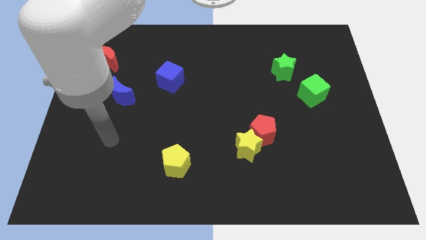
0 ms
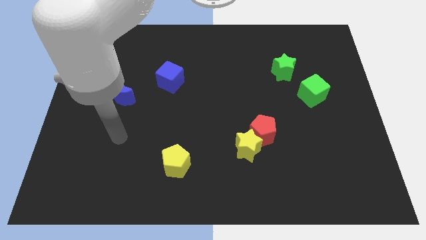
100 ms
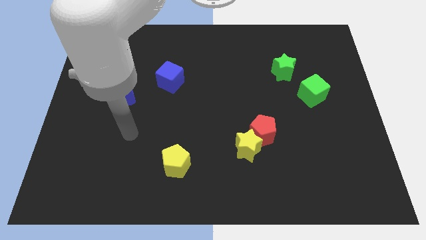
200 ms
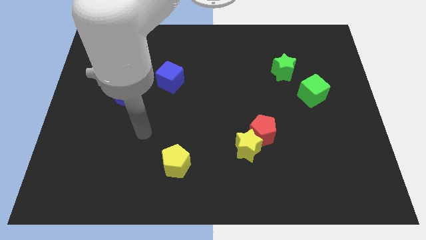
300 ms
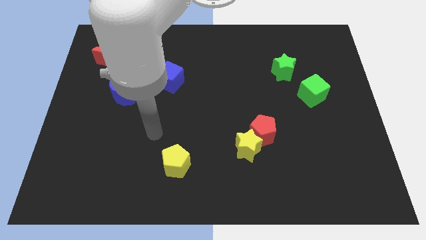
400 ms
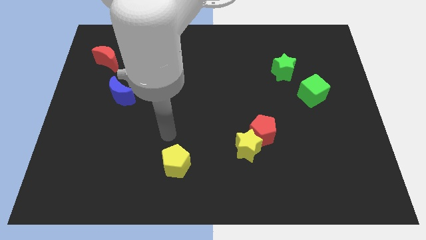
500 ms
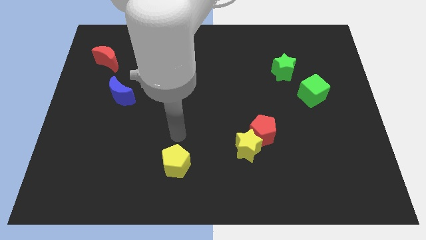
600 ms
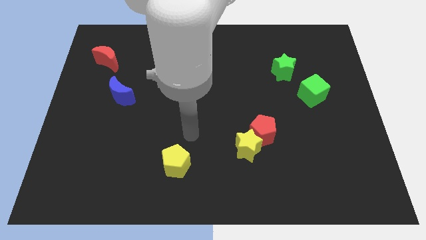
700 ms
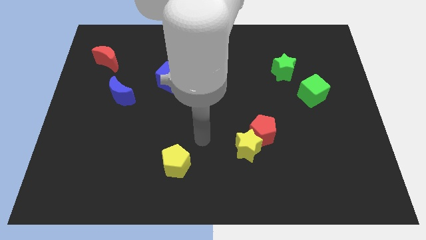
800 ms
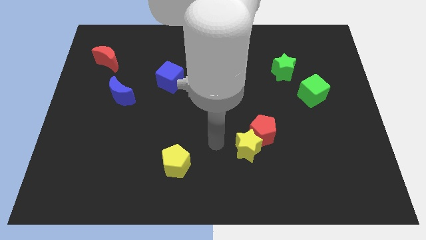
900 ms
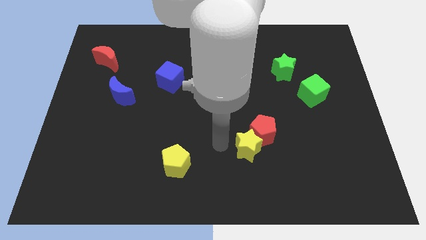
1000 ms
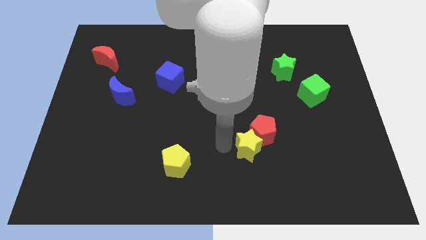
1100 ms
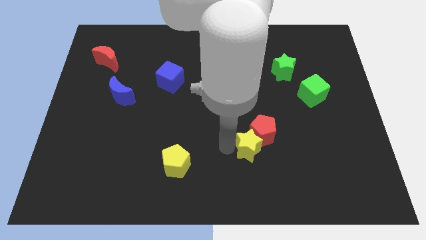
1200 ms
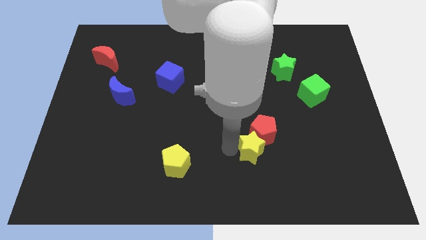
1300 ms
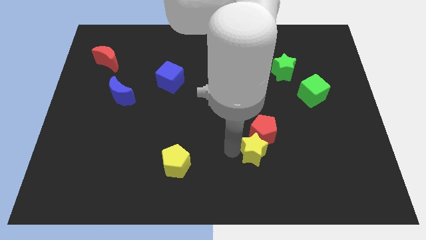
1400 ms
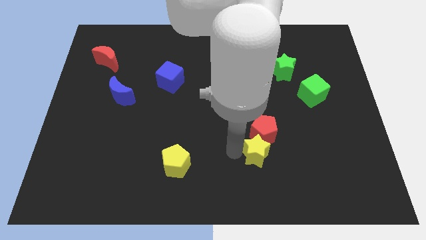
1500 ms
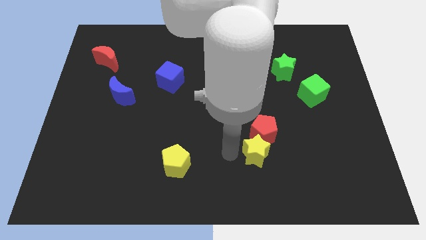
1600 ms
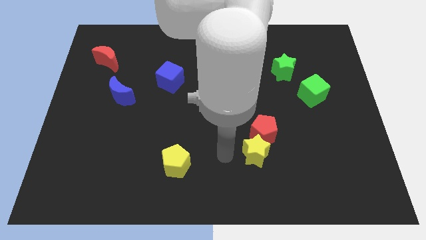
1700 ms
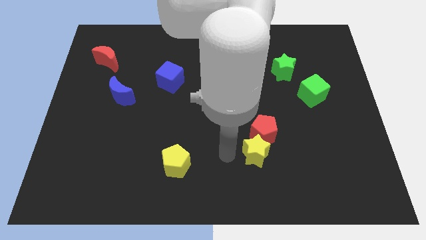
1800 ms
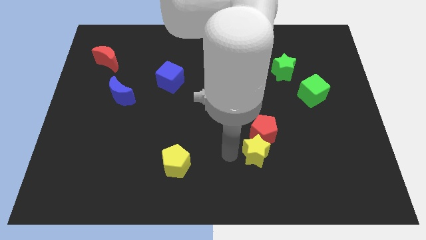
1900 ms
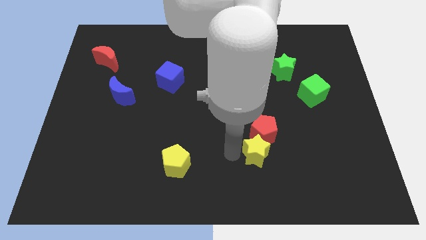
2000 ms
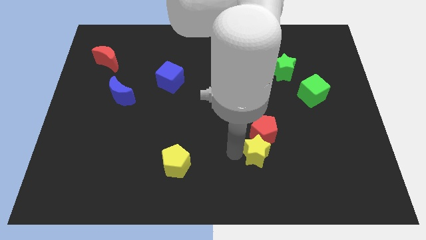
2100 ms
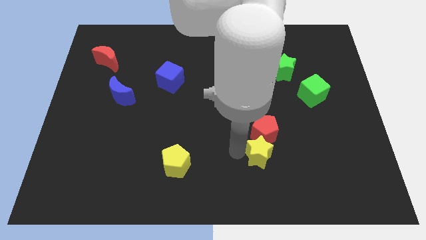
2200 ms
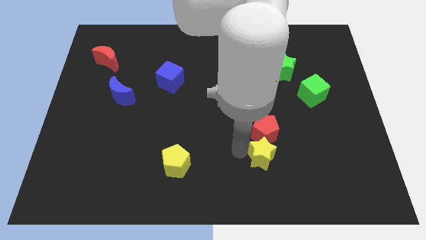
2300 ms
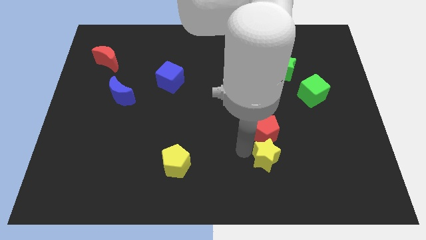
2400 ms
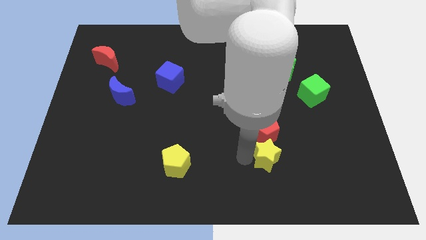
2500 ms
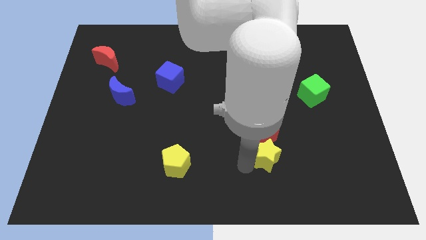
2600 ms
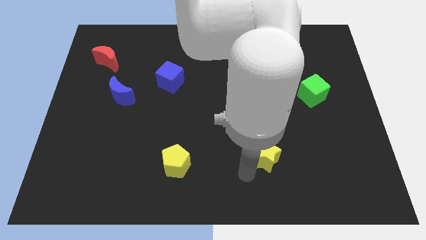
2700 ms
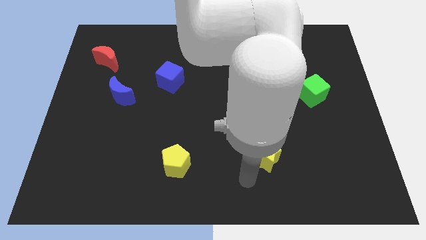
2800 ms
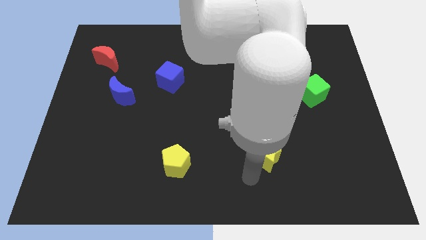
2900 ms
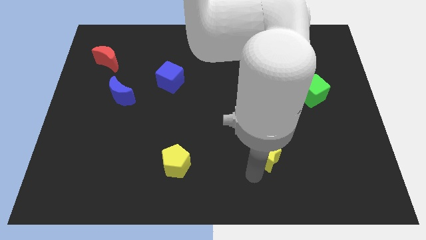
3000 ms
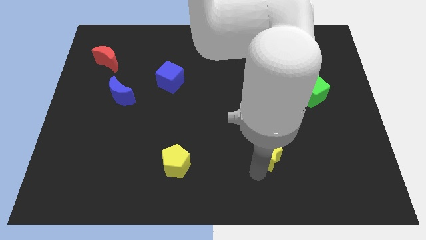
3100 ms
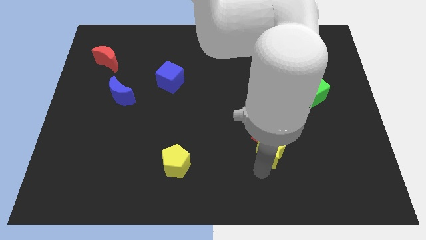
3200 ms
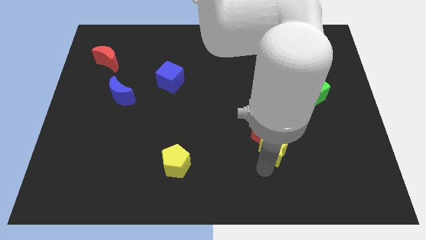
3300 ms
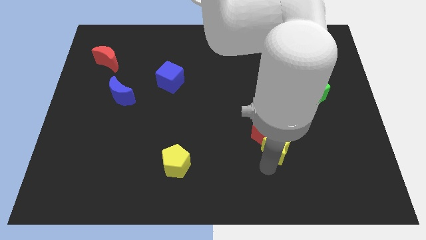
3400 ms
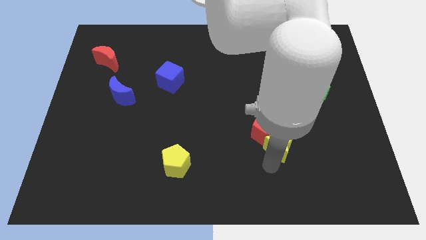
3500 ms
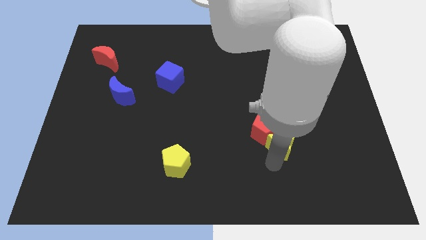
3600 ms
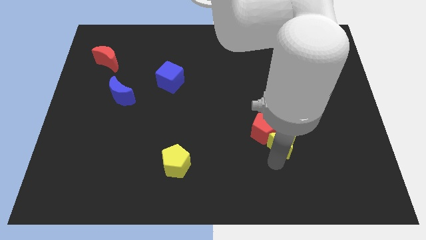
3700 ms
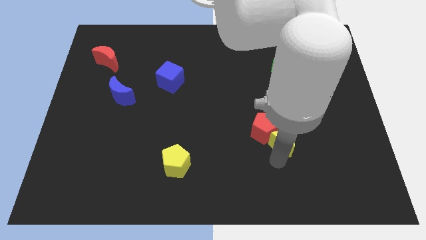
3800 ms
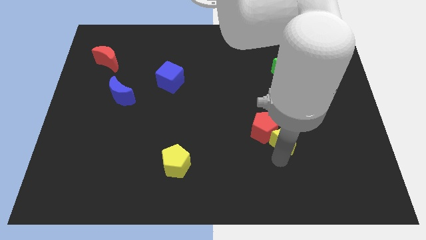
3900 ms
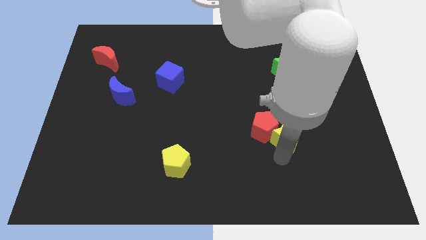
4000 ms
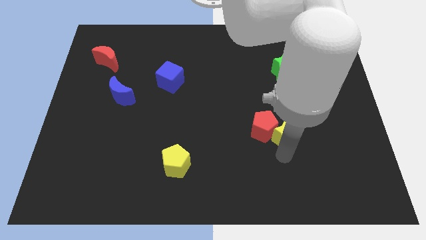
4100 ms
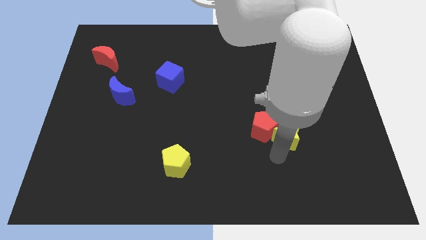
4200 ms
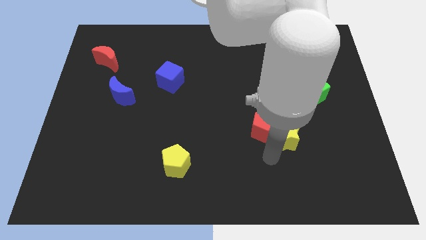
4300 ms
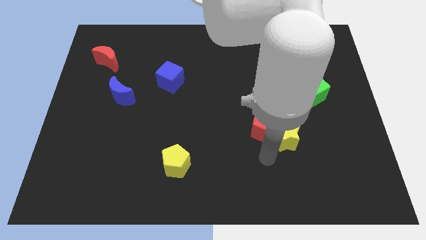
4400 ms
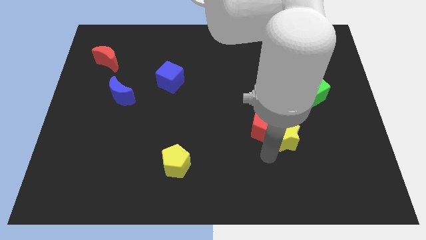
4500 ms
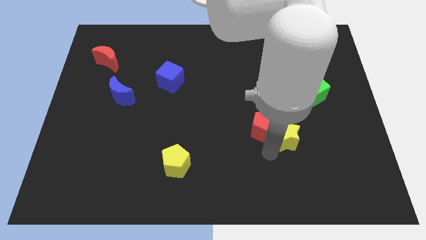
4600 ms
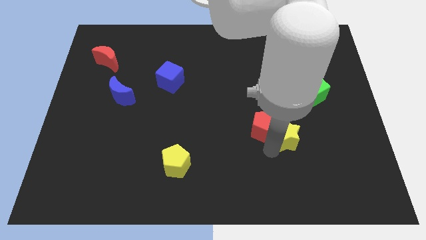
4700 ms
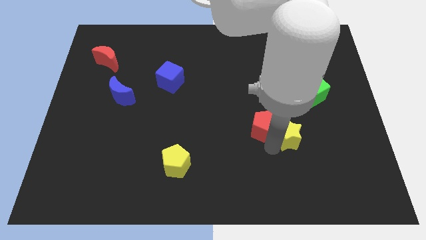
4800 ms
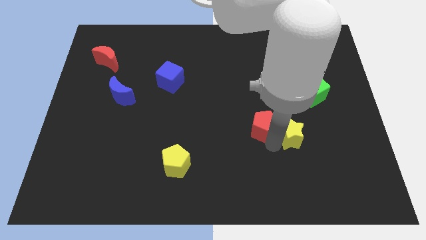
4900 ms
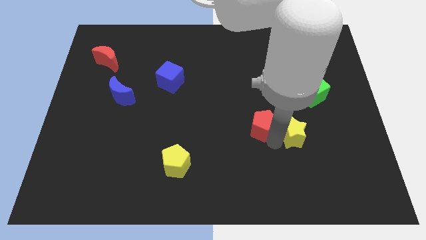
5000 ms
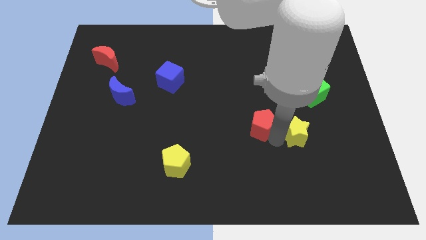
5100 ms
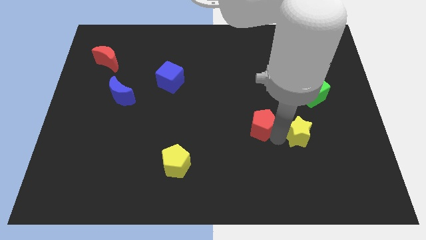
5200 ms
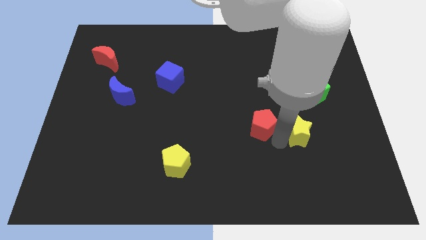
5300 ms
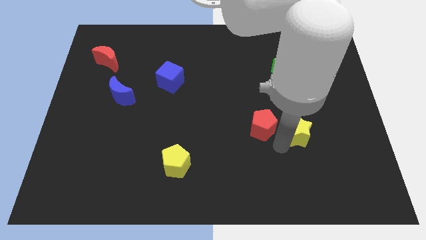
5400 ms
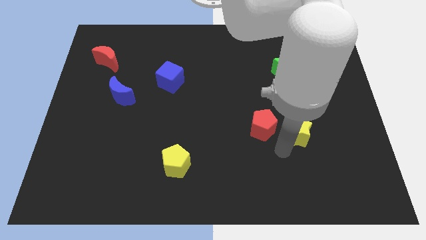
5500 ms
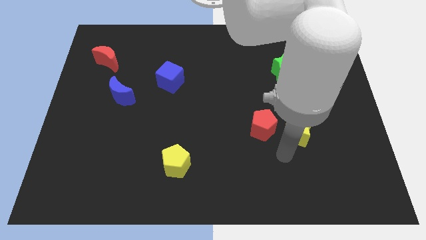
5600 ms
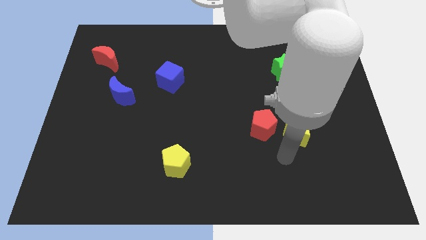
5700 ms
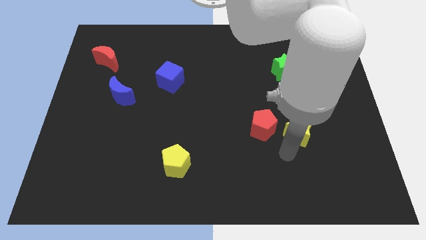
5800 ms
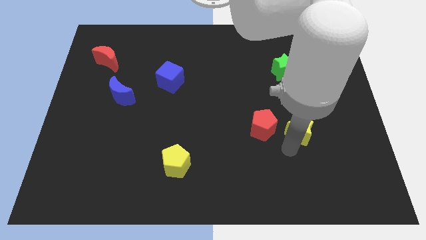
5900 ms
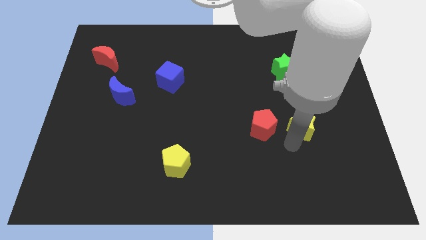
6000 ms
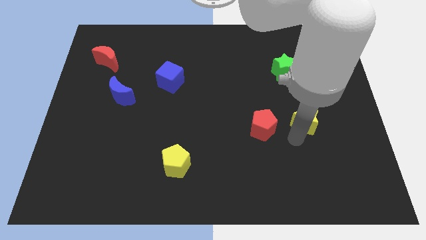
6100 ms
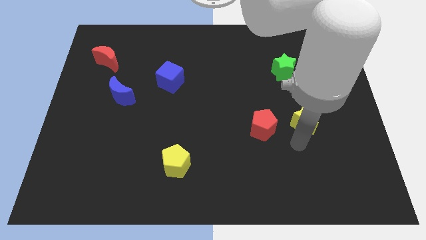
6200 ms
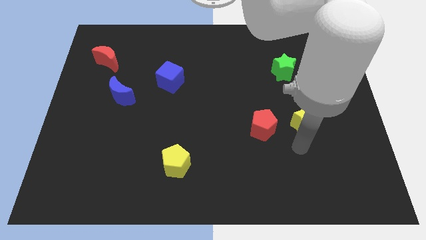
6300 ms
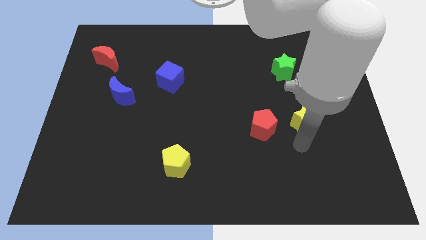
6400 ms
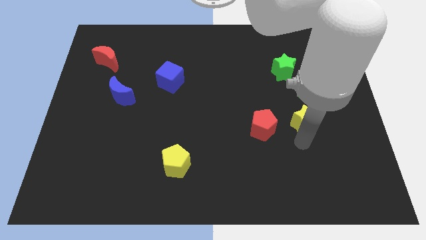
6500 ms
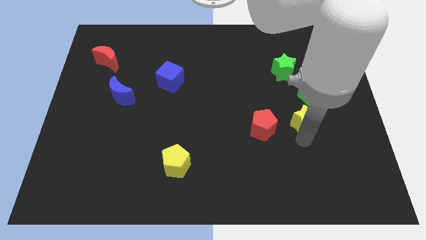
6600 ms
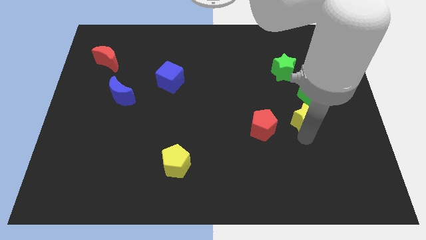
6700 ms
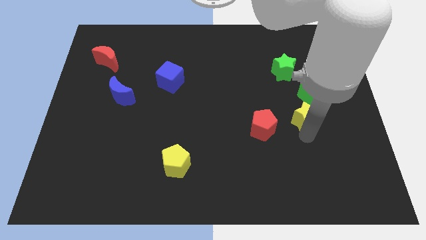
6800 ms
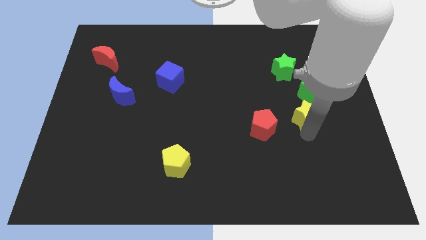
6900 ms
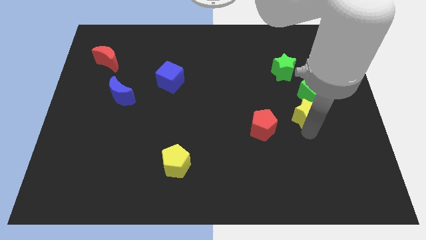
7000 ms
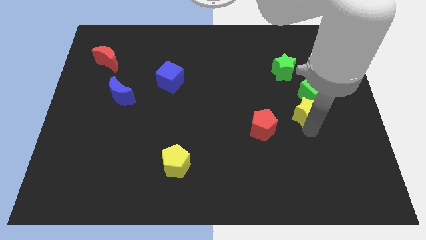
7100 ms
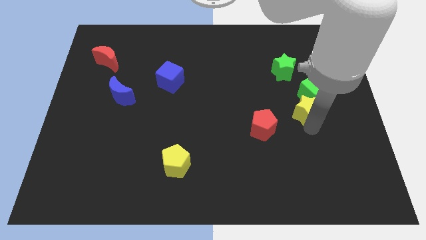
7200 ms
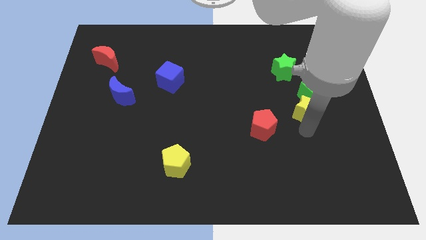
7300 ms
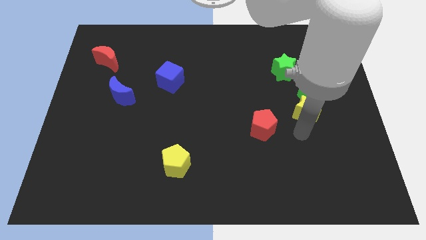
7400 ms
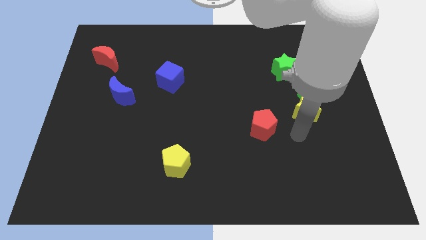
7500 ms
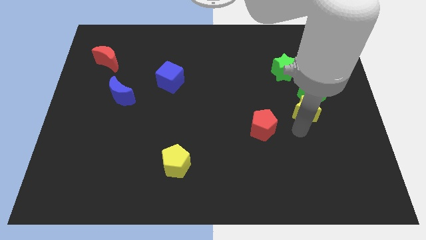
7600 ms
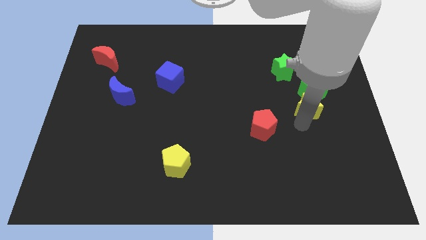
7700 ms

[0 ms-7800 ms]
push the yellow star towards the green cube
